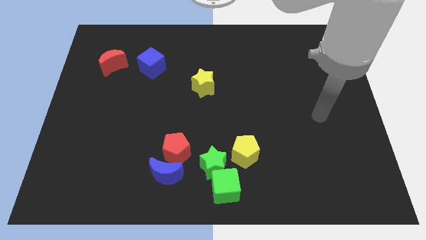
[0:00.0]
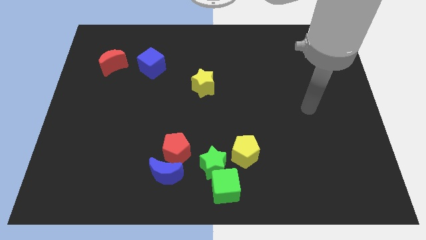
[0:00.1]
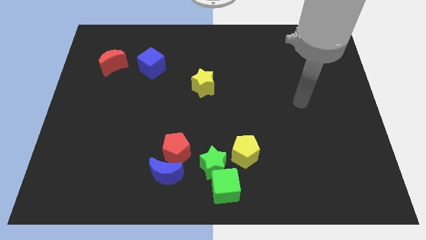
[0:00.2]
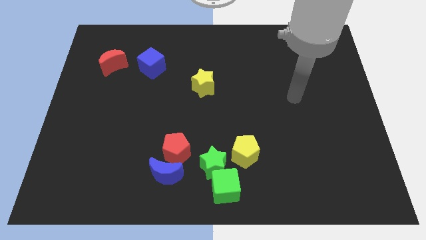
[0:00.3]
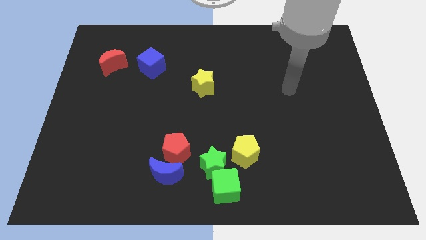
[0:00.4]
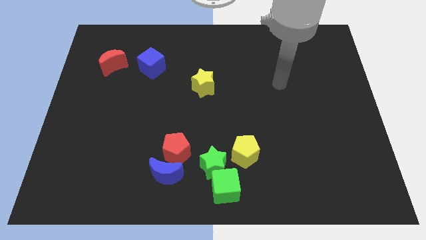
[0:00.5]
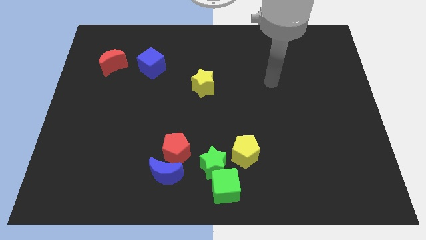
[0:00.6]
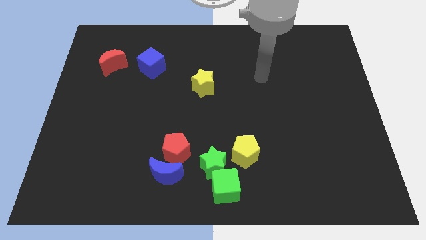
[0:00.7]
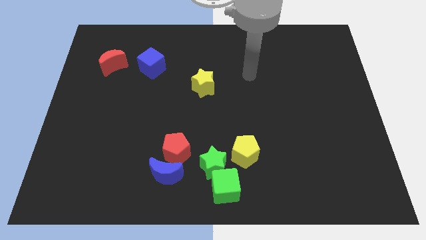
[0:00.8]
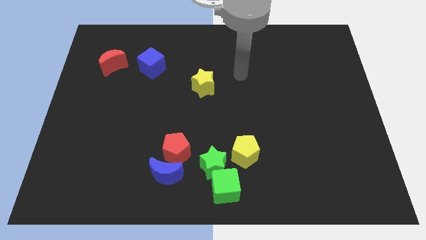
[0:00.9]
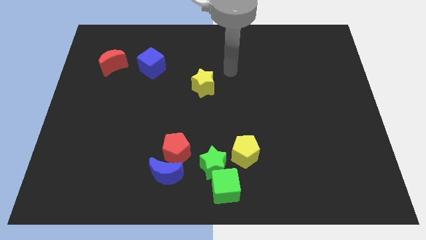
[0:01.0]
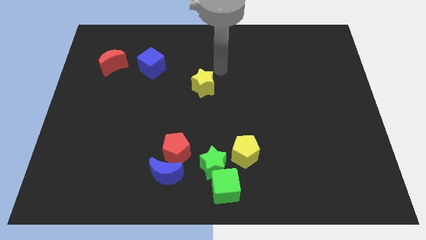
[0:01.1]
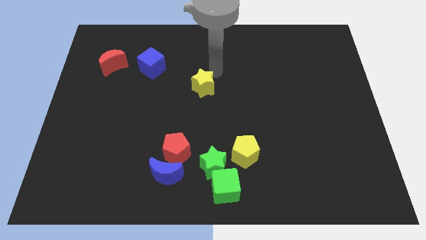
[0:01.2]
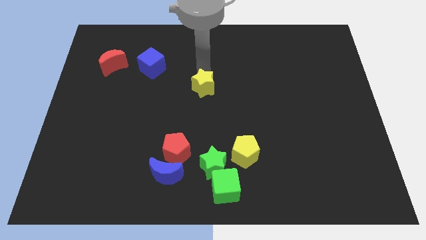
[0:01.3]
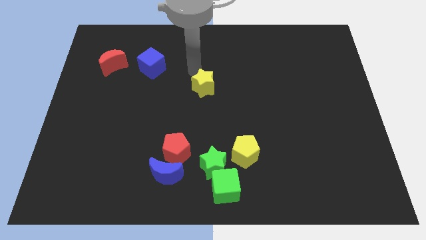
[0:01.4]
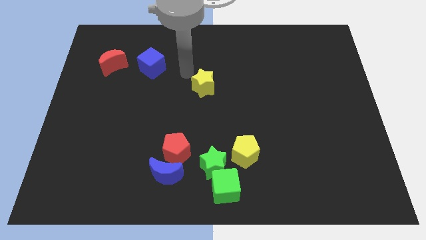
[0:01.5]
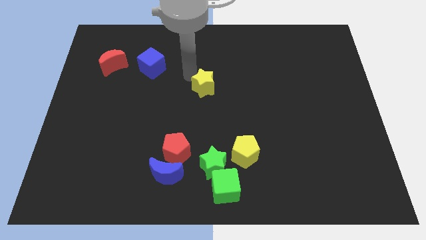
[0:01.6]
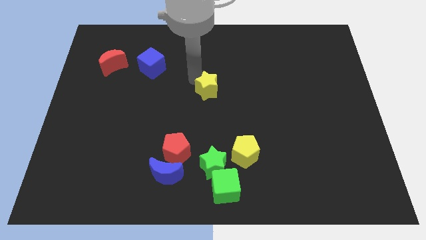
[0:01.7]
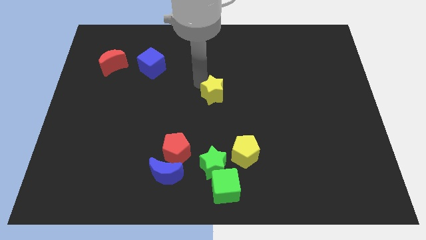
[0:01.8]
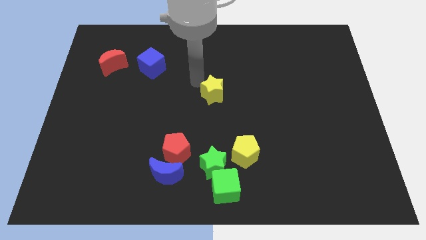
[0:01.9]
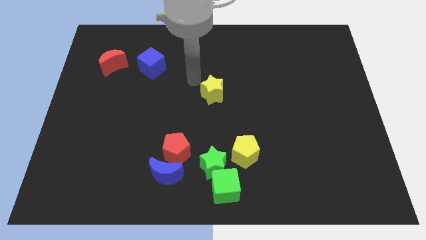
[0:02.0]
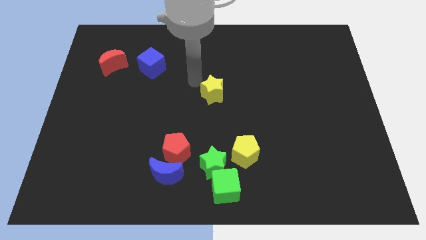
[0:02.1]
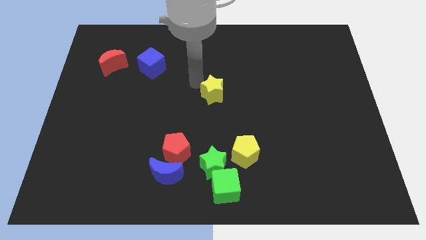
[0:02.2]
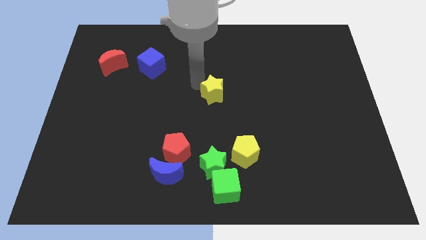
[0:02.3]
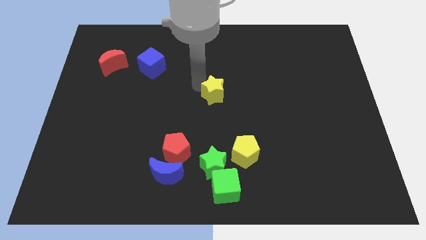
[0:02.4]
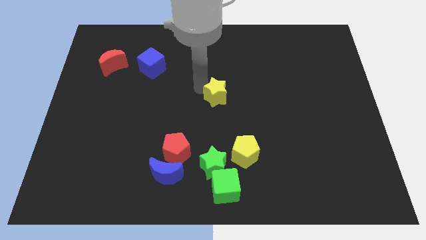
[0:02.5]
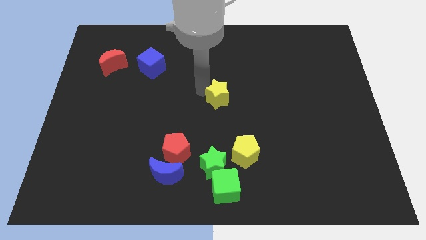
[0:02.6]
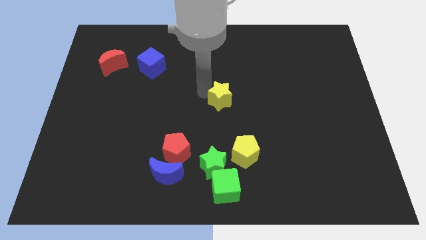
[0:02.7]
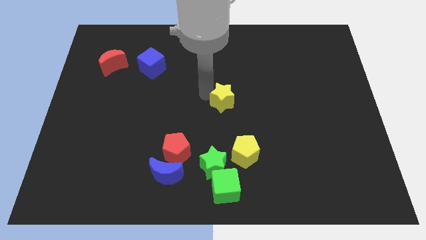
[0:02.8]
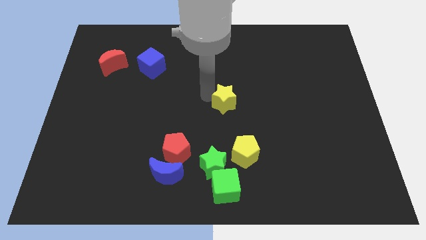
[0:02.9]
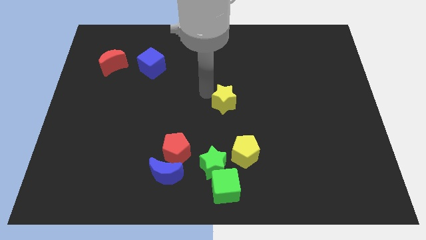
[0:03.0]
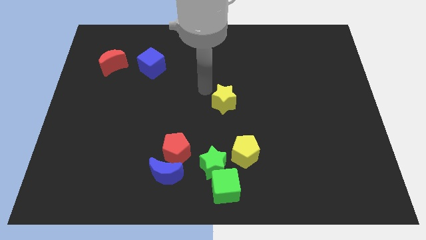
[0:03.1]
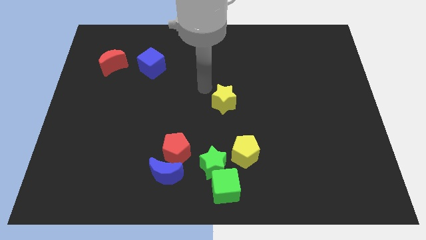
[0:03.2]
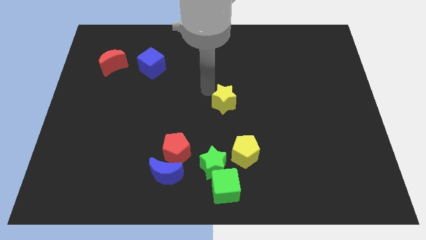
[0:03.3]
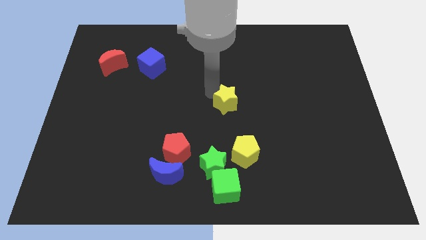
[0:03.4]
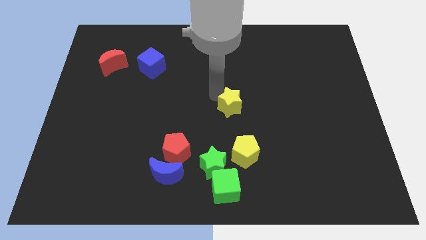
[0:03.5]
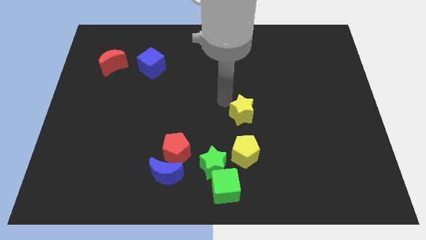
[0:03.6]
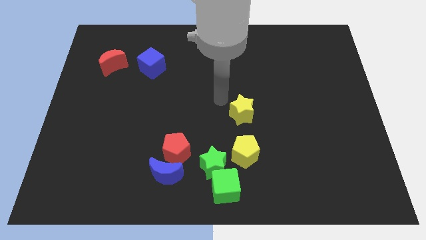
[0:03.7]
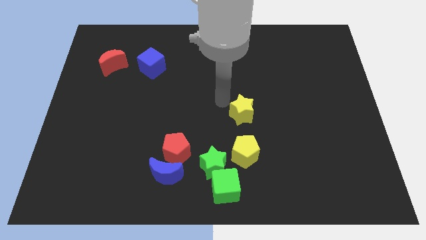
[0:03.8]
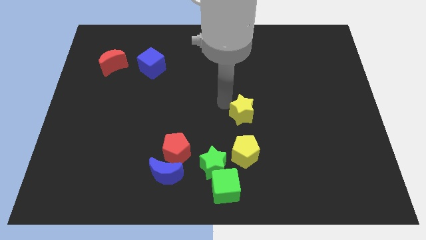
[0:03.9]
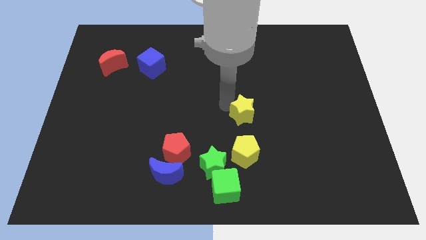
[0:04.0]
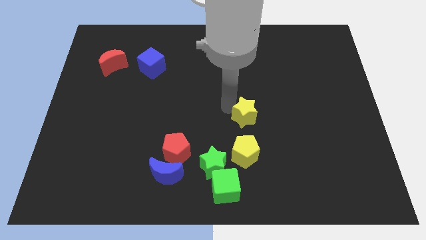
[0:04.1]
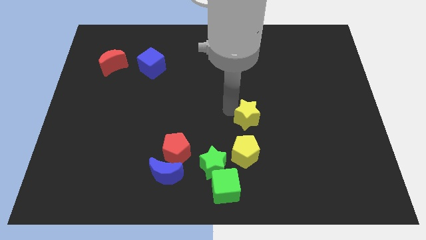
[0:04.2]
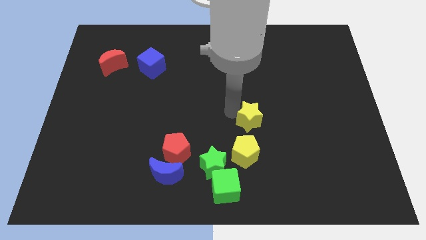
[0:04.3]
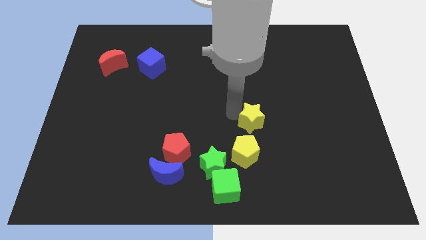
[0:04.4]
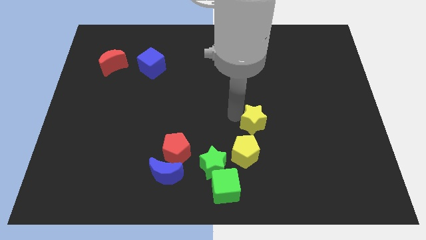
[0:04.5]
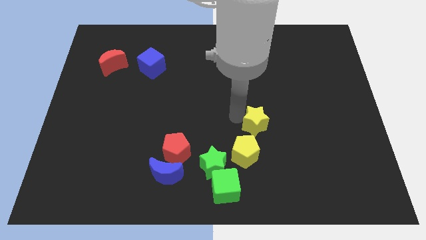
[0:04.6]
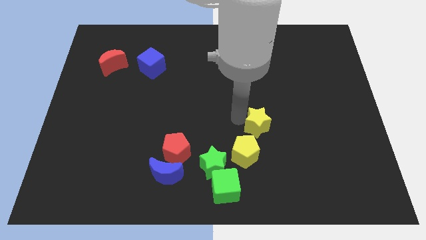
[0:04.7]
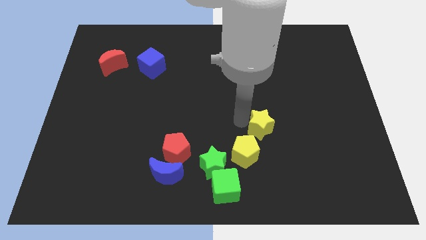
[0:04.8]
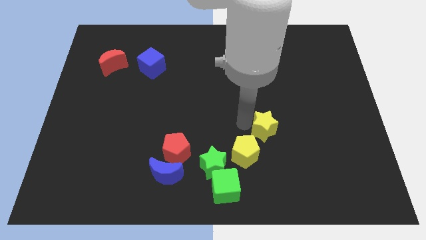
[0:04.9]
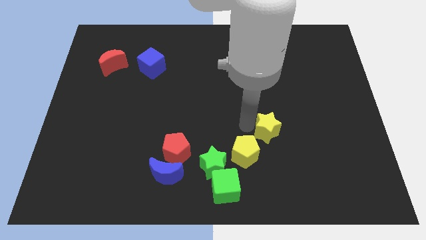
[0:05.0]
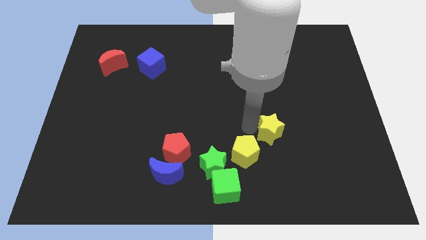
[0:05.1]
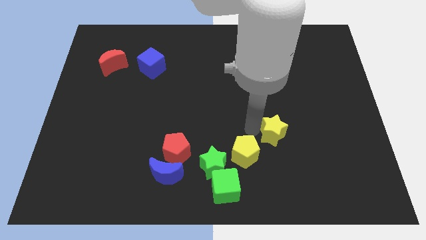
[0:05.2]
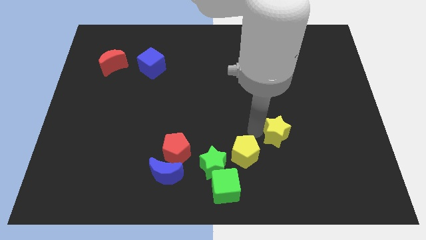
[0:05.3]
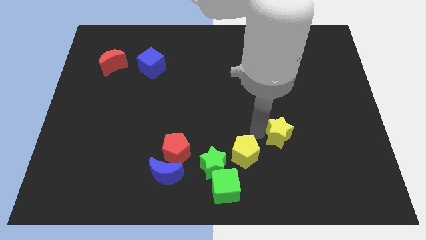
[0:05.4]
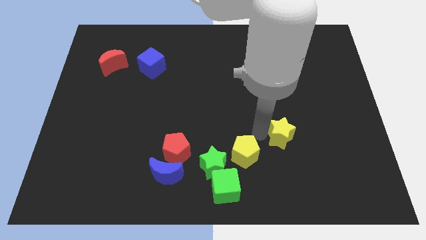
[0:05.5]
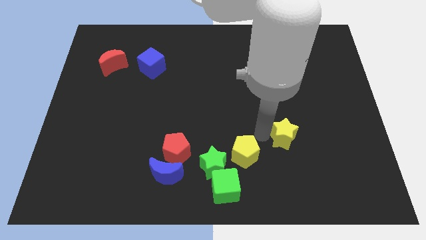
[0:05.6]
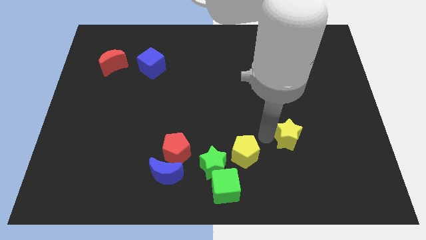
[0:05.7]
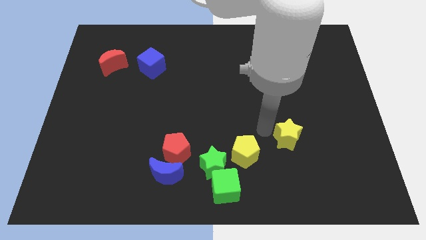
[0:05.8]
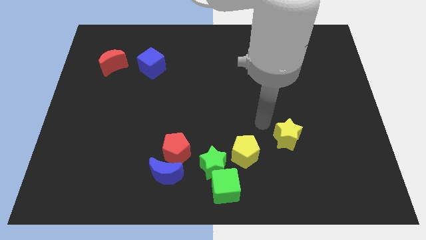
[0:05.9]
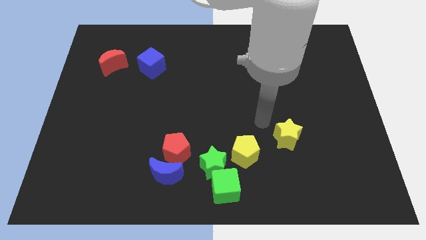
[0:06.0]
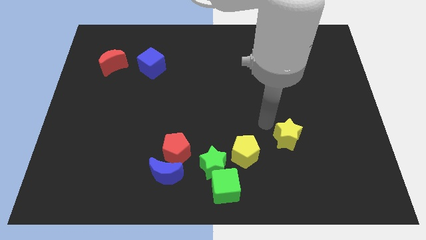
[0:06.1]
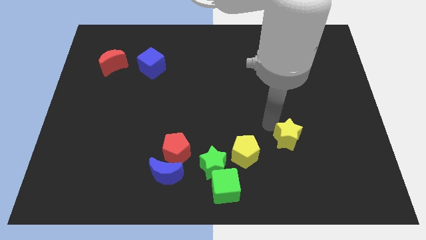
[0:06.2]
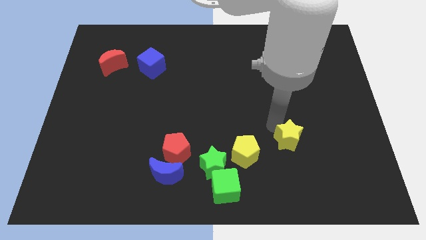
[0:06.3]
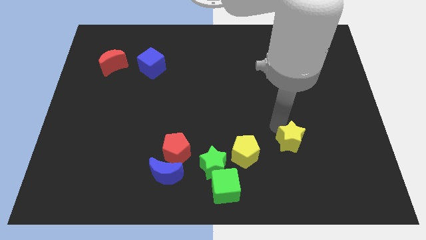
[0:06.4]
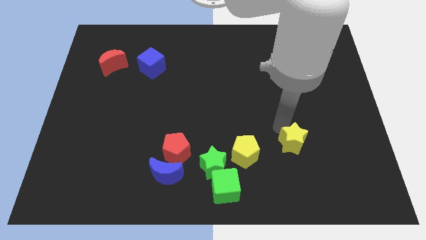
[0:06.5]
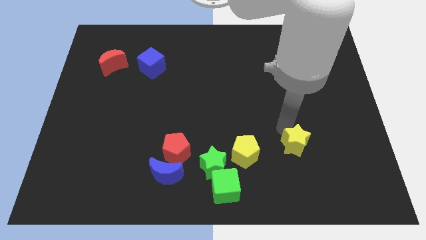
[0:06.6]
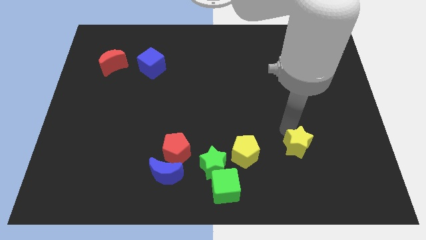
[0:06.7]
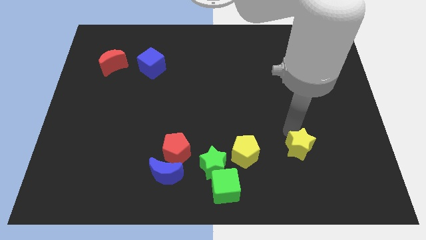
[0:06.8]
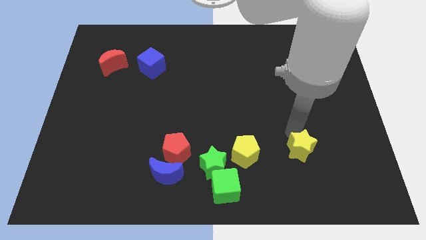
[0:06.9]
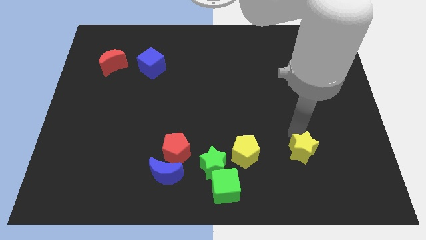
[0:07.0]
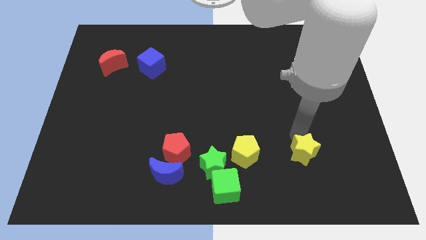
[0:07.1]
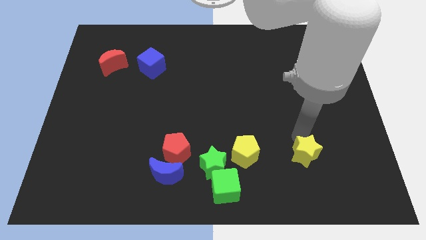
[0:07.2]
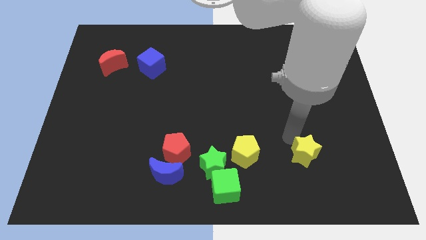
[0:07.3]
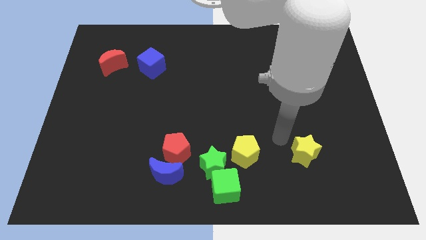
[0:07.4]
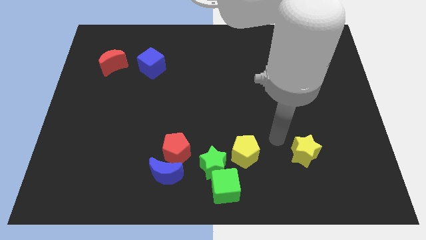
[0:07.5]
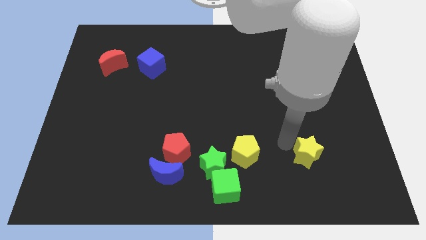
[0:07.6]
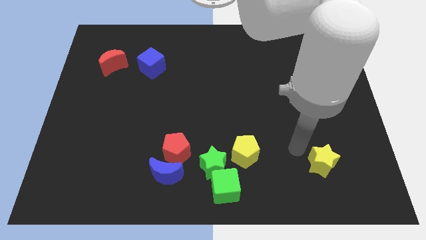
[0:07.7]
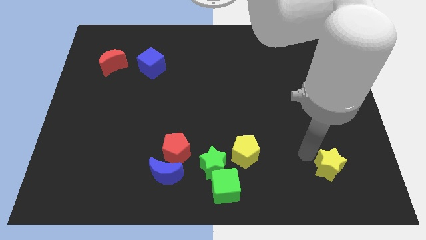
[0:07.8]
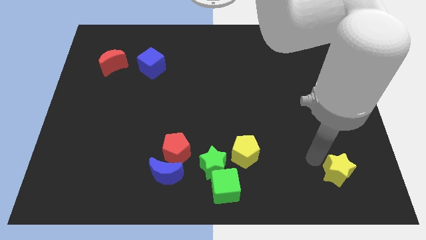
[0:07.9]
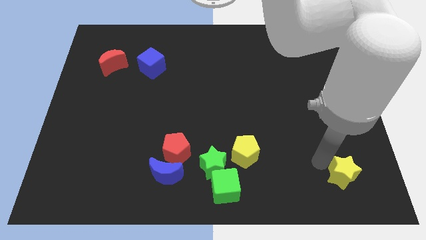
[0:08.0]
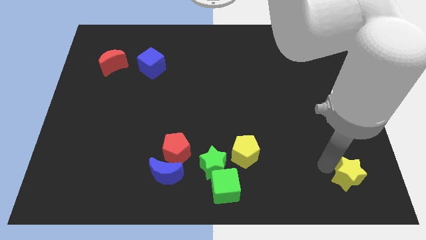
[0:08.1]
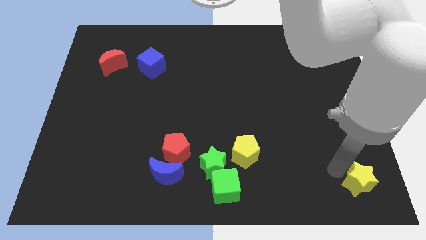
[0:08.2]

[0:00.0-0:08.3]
put the yellow star to the bottom right
